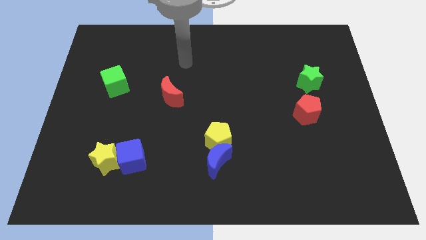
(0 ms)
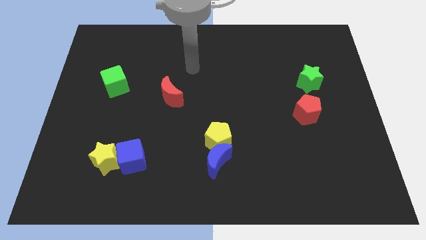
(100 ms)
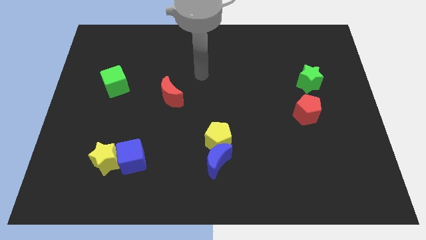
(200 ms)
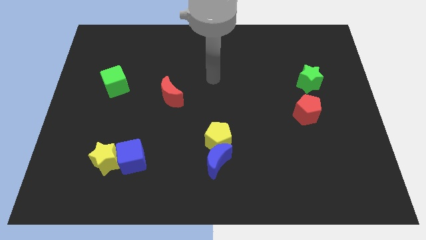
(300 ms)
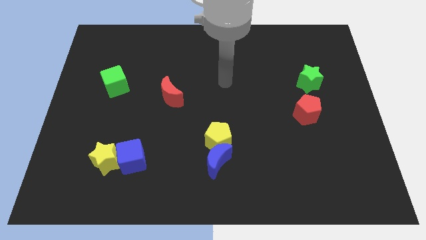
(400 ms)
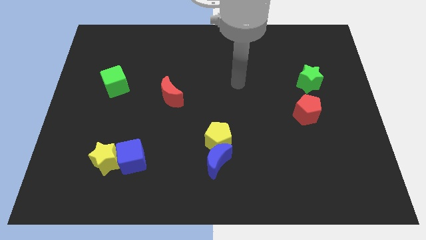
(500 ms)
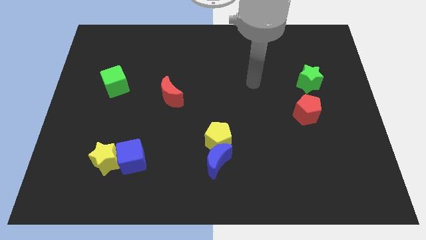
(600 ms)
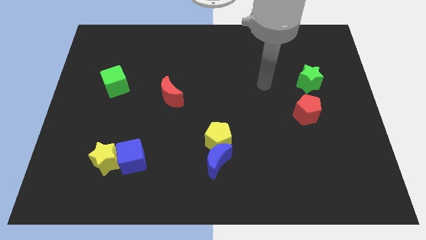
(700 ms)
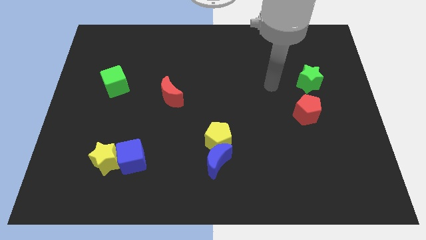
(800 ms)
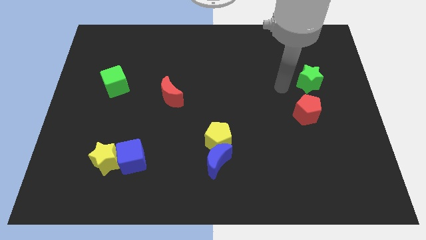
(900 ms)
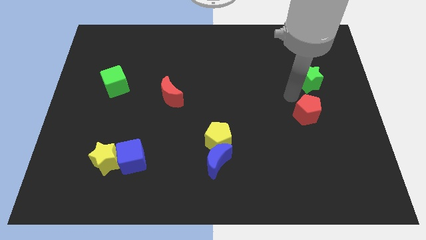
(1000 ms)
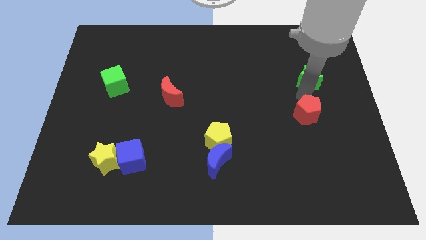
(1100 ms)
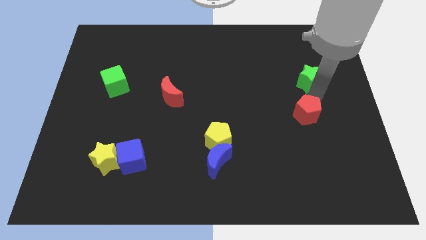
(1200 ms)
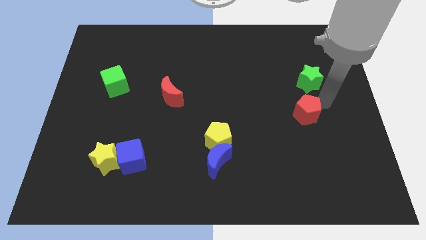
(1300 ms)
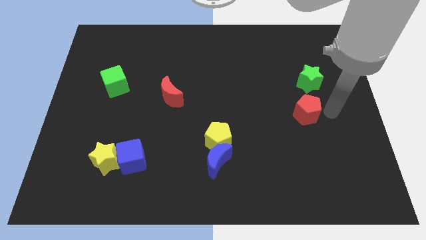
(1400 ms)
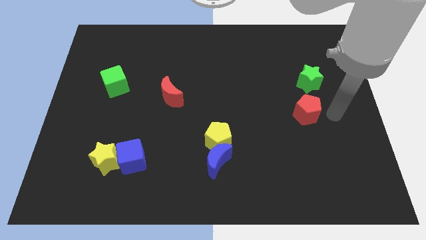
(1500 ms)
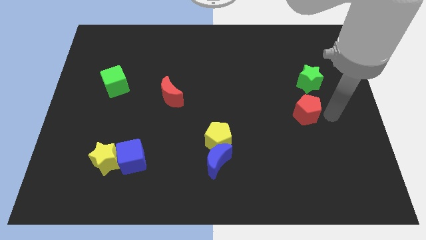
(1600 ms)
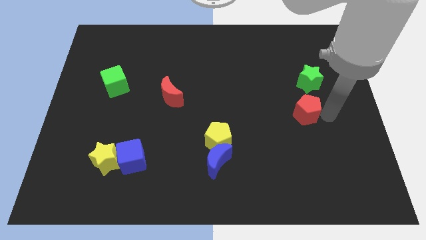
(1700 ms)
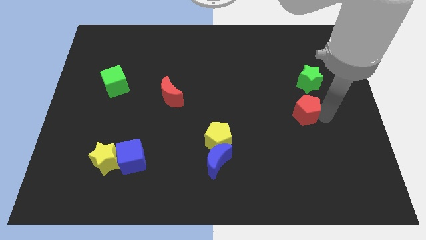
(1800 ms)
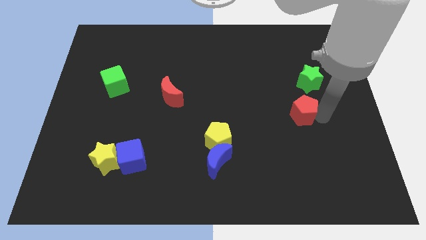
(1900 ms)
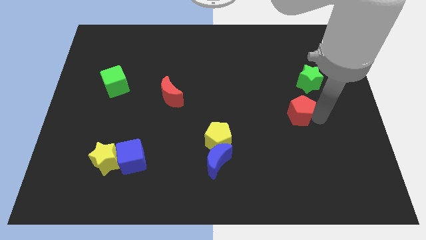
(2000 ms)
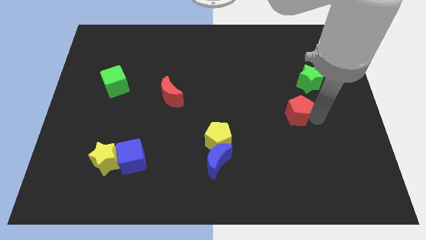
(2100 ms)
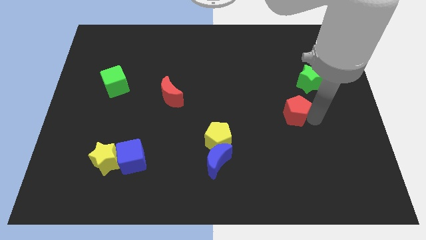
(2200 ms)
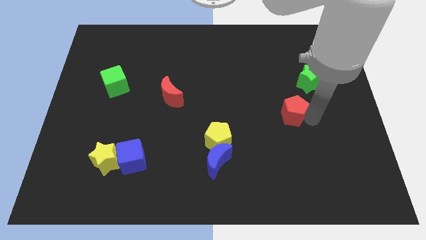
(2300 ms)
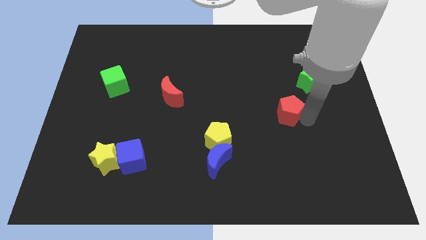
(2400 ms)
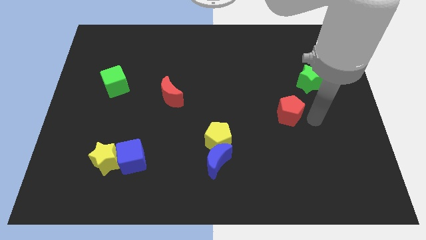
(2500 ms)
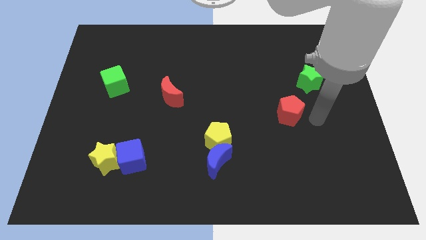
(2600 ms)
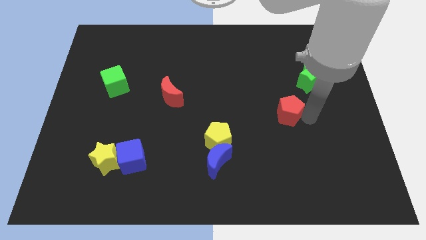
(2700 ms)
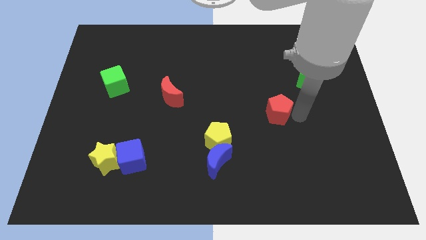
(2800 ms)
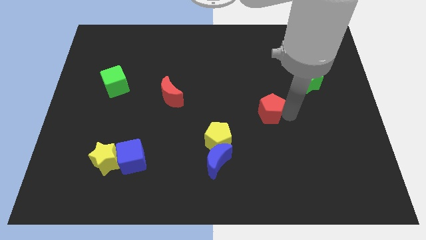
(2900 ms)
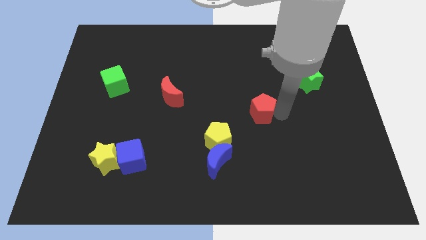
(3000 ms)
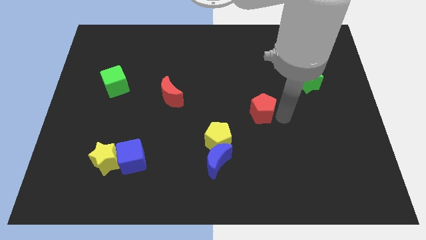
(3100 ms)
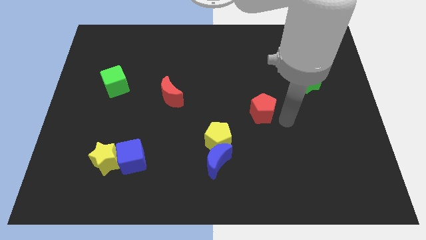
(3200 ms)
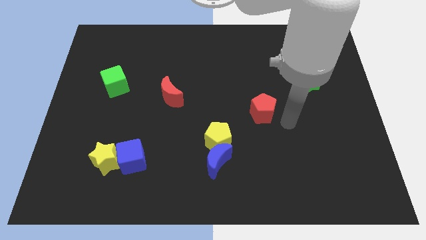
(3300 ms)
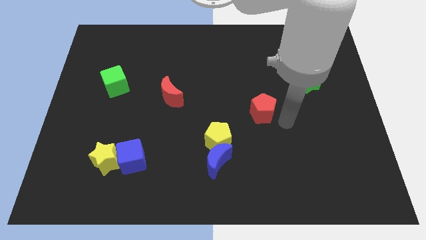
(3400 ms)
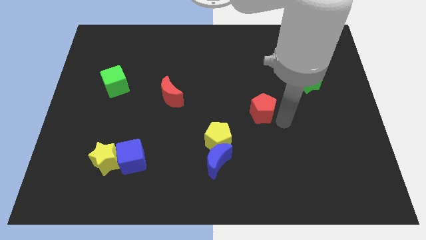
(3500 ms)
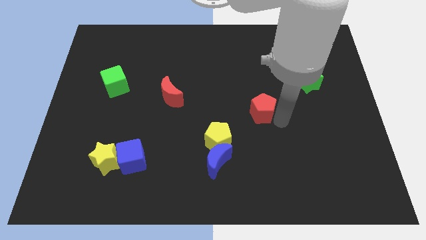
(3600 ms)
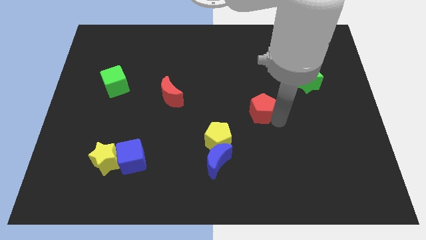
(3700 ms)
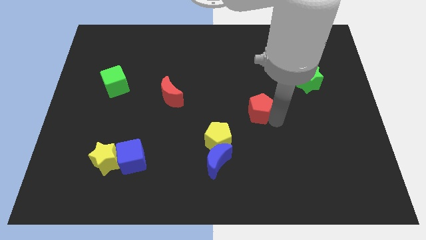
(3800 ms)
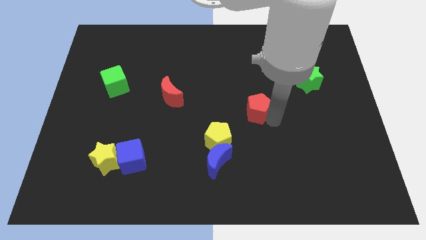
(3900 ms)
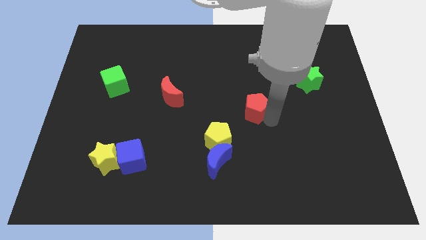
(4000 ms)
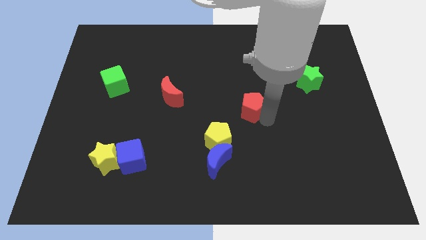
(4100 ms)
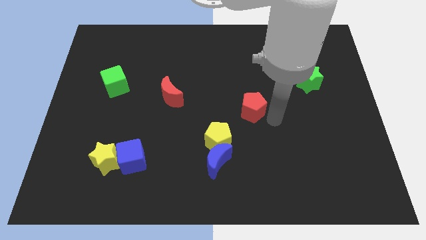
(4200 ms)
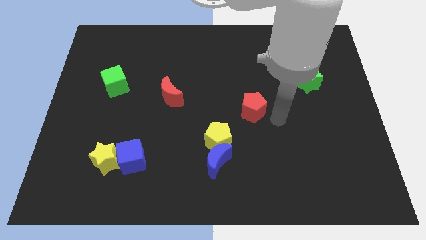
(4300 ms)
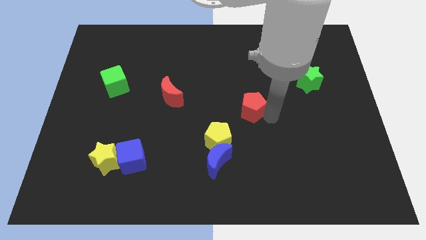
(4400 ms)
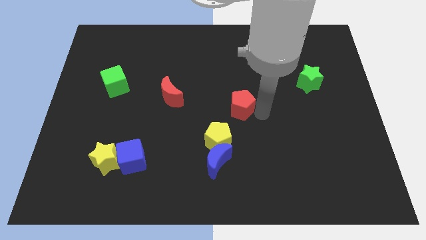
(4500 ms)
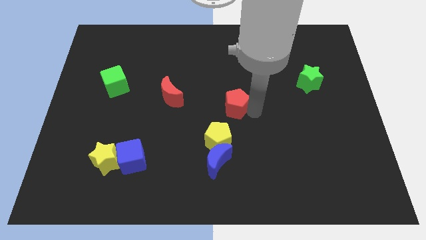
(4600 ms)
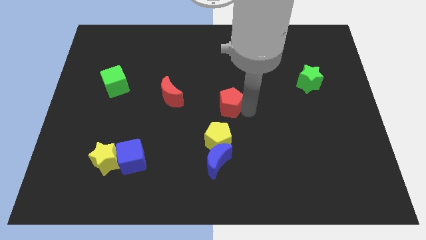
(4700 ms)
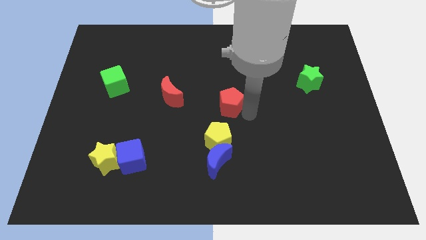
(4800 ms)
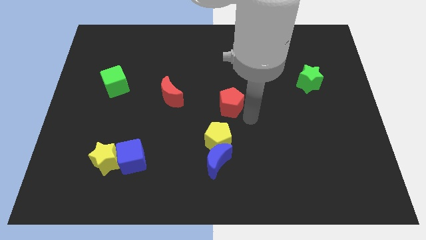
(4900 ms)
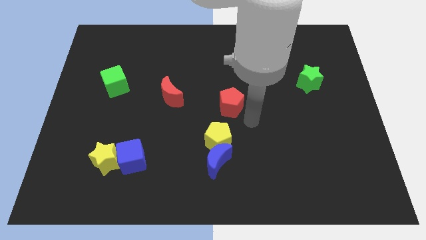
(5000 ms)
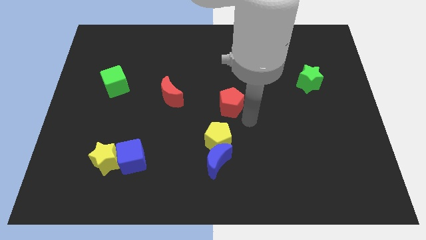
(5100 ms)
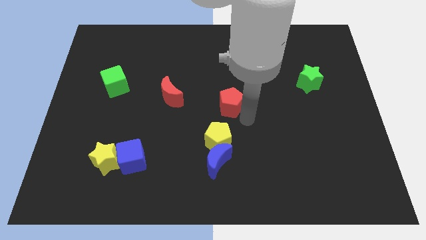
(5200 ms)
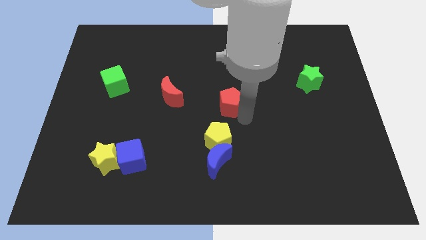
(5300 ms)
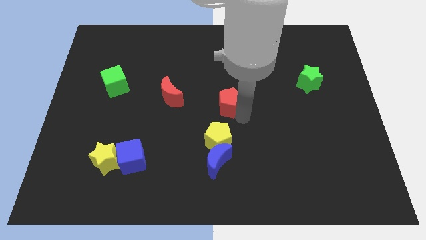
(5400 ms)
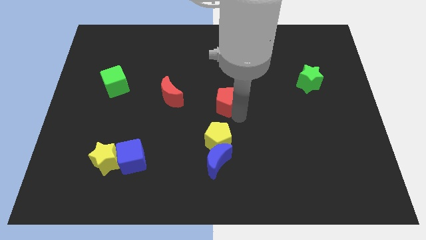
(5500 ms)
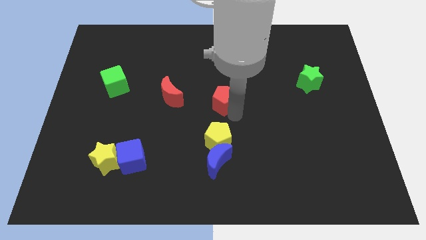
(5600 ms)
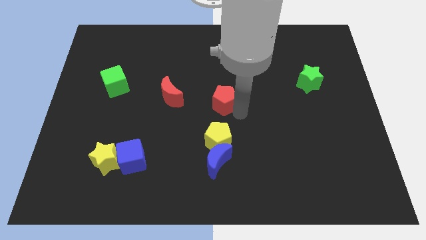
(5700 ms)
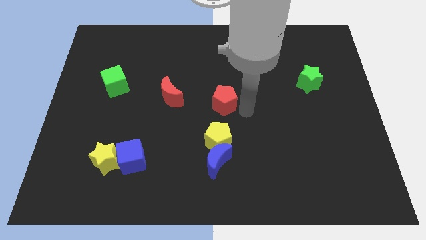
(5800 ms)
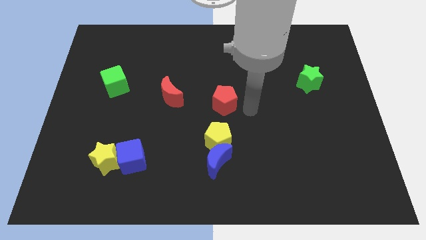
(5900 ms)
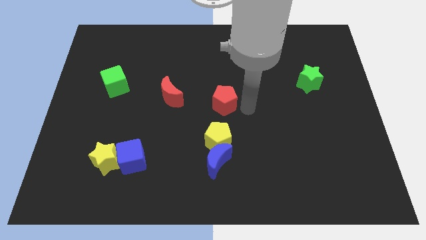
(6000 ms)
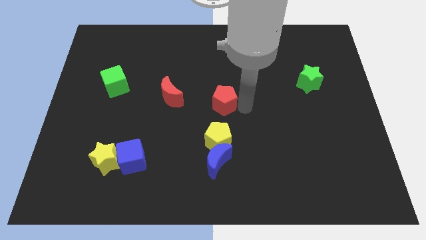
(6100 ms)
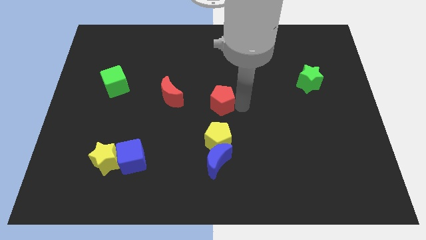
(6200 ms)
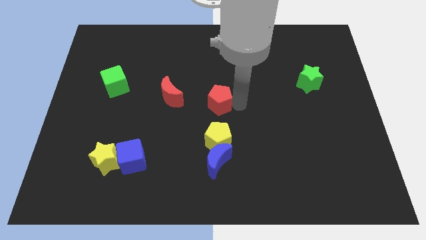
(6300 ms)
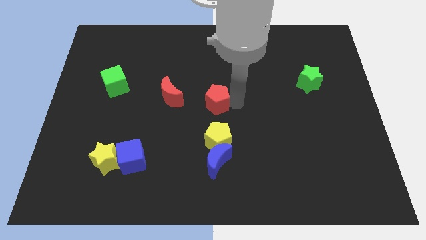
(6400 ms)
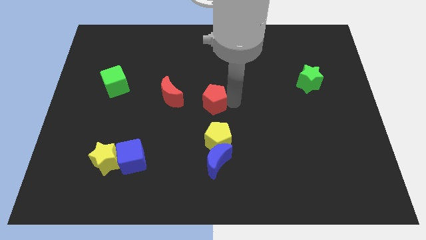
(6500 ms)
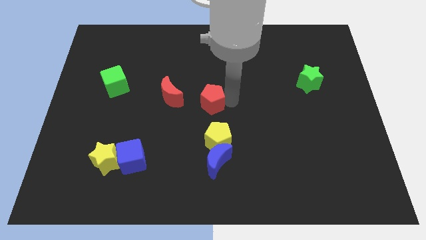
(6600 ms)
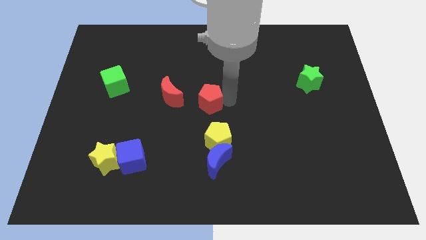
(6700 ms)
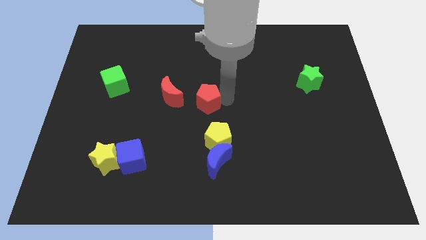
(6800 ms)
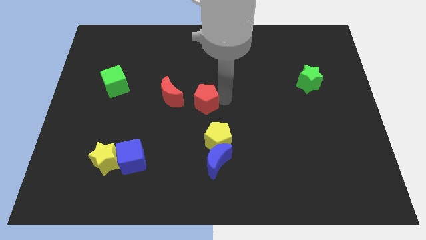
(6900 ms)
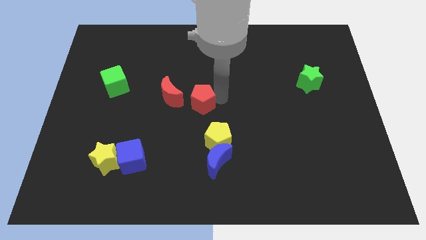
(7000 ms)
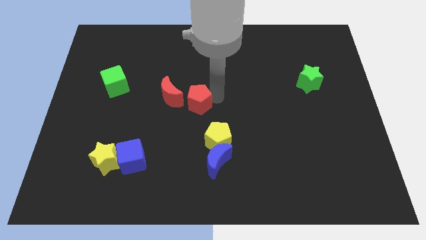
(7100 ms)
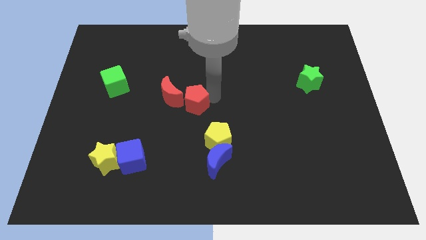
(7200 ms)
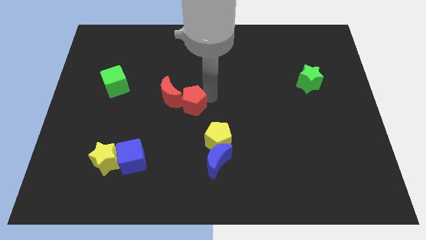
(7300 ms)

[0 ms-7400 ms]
put the red pentagon to the red moon
